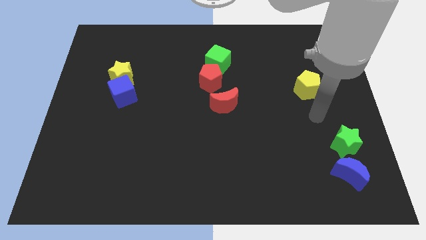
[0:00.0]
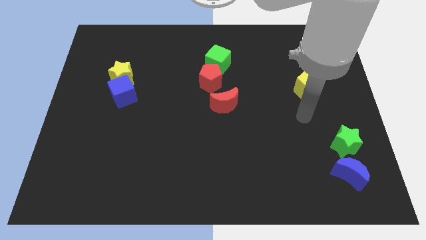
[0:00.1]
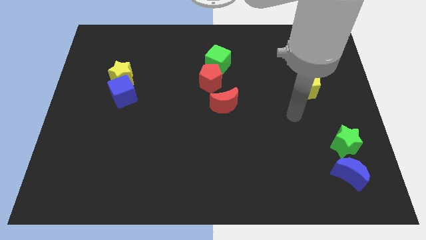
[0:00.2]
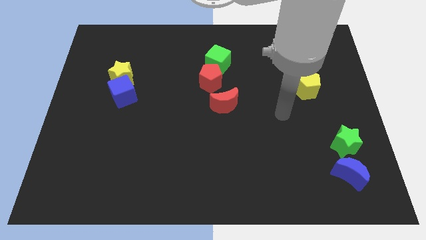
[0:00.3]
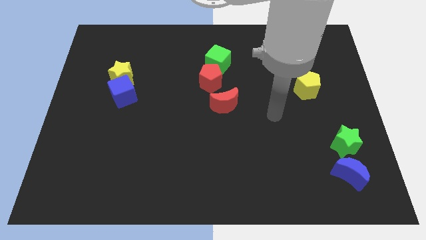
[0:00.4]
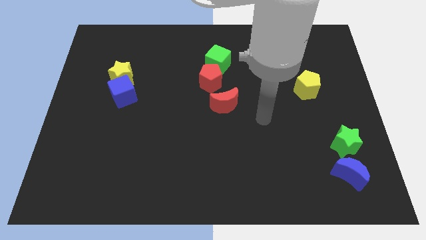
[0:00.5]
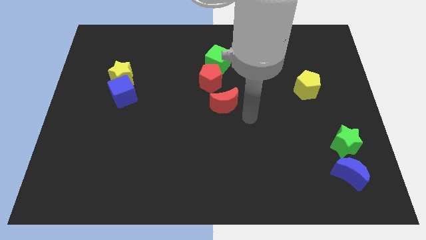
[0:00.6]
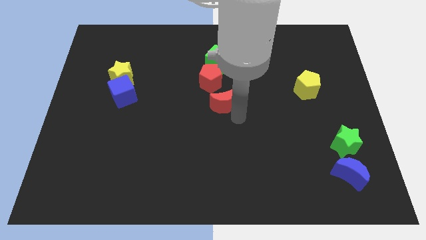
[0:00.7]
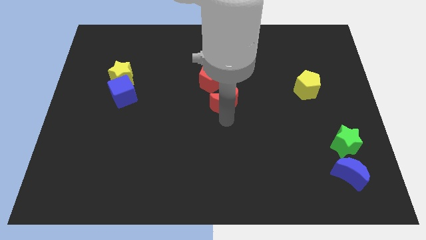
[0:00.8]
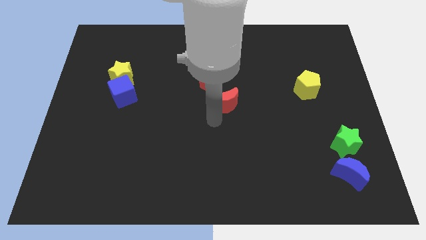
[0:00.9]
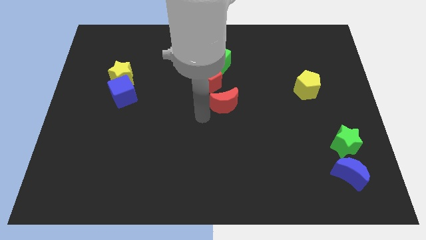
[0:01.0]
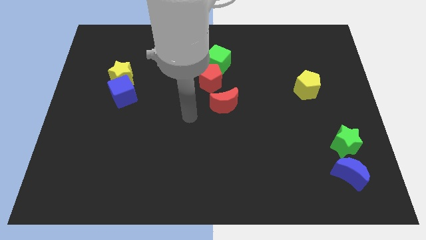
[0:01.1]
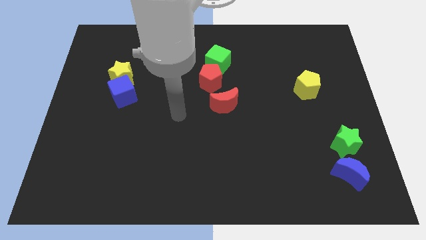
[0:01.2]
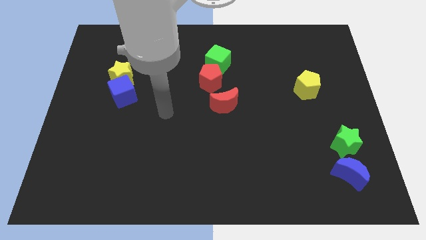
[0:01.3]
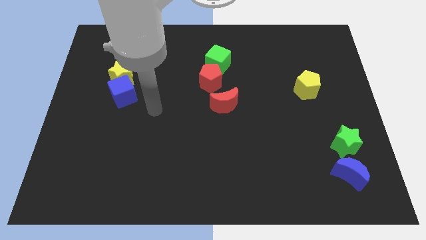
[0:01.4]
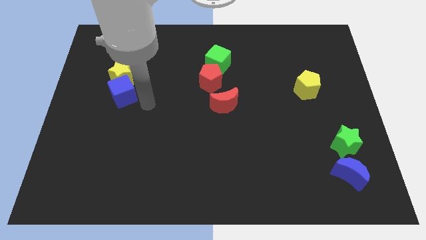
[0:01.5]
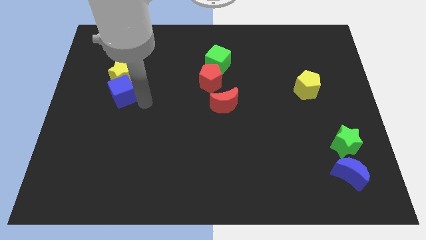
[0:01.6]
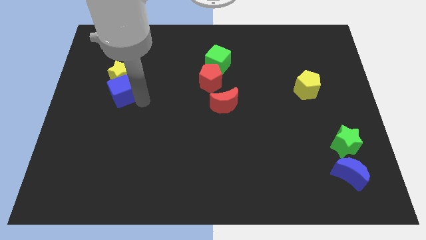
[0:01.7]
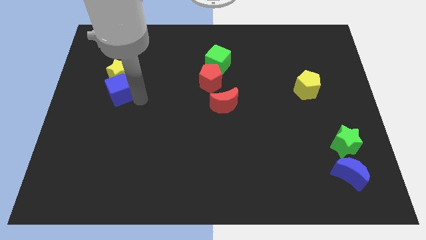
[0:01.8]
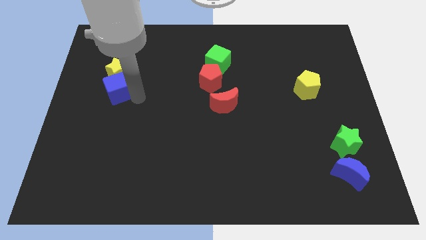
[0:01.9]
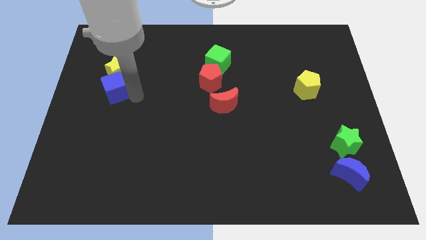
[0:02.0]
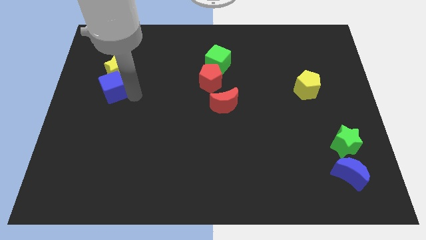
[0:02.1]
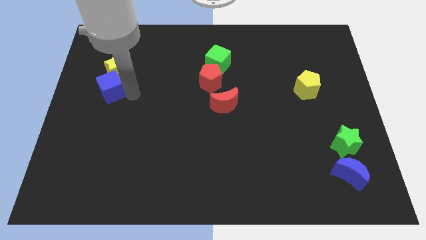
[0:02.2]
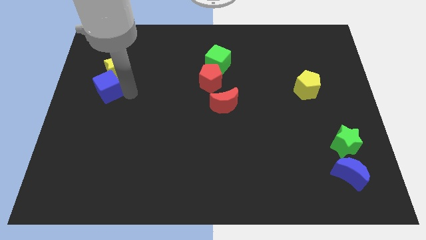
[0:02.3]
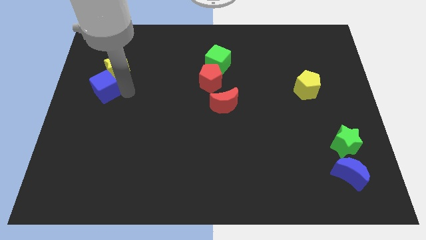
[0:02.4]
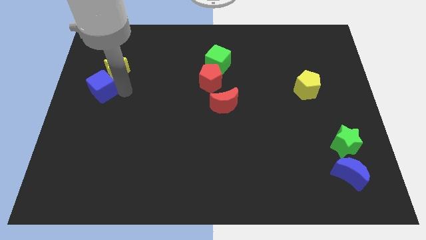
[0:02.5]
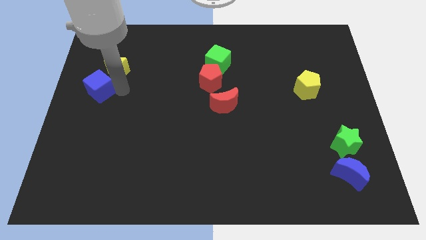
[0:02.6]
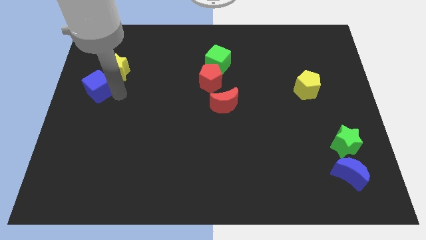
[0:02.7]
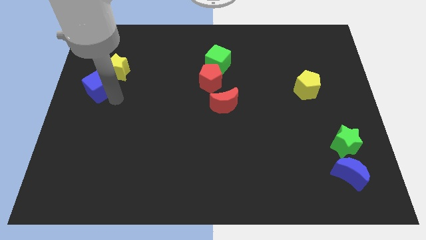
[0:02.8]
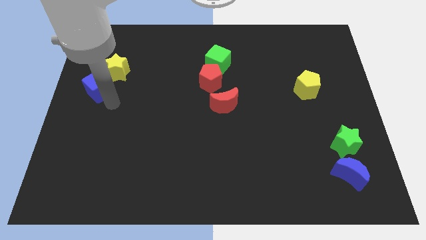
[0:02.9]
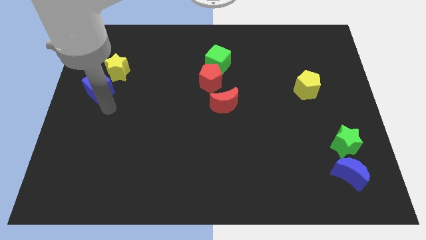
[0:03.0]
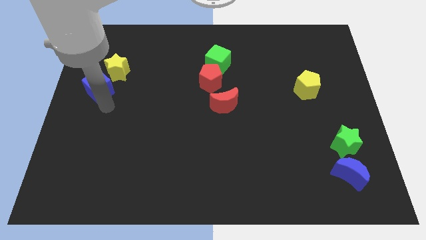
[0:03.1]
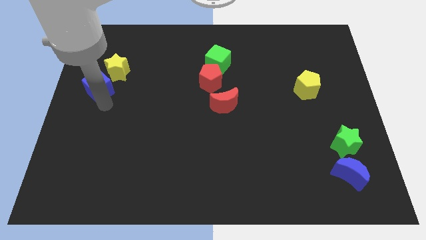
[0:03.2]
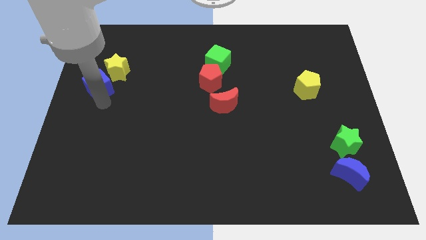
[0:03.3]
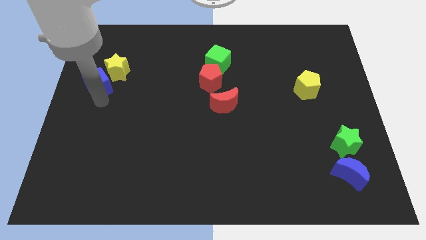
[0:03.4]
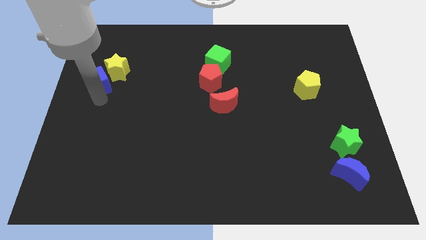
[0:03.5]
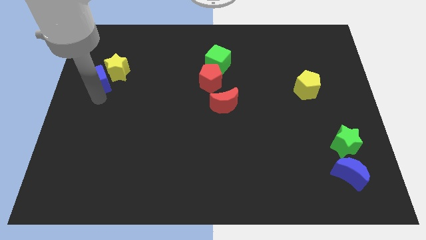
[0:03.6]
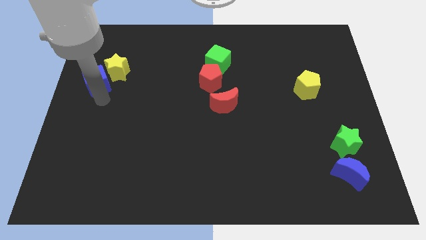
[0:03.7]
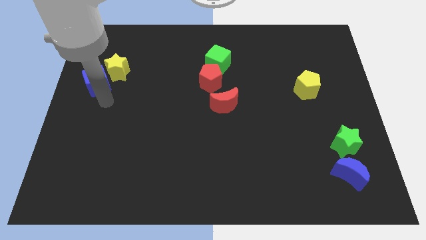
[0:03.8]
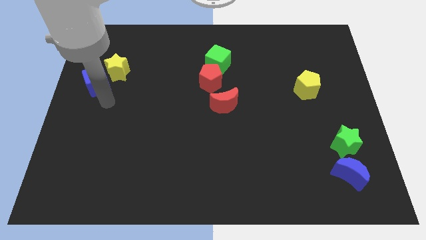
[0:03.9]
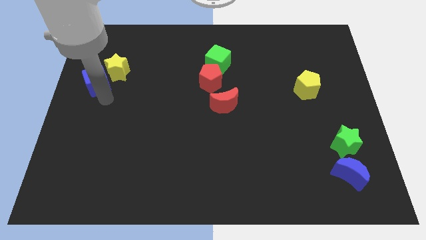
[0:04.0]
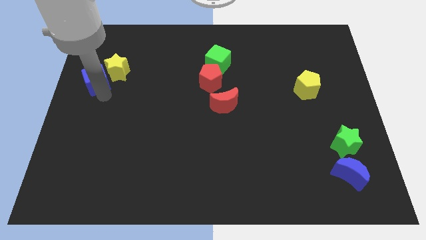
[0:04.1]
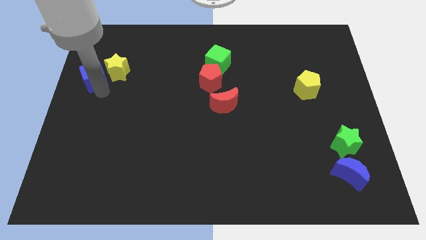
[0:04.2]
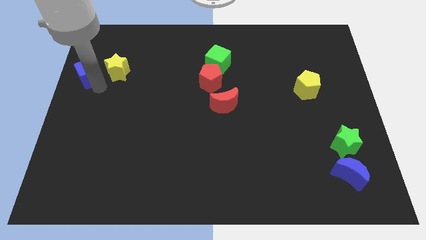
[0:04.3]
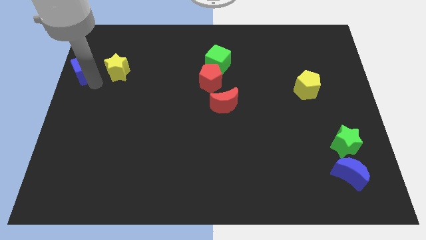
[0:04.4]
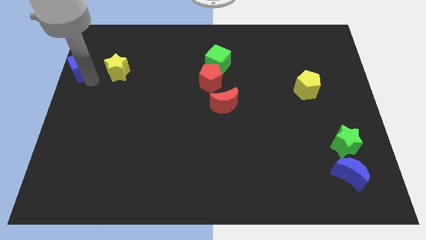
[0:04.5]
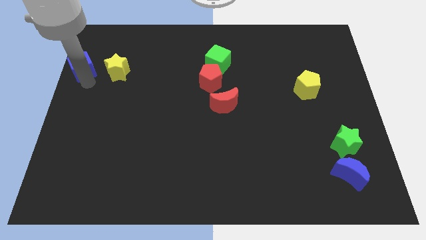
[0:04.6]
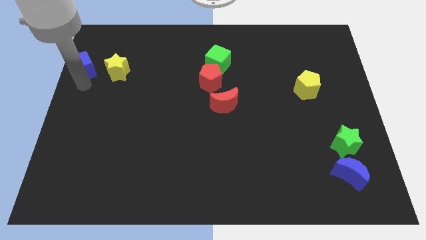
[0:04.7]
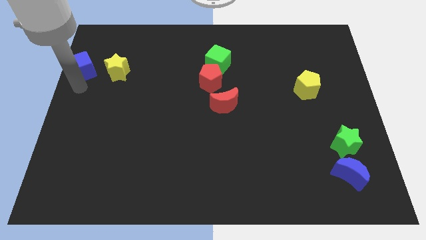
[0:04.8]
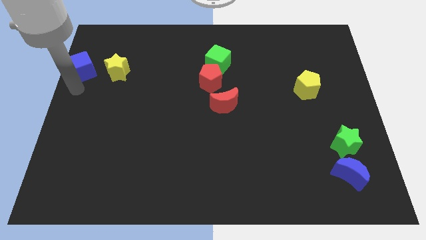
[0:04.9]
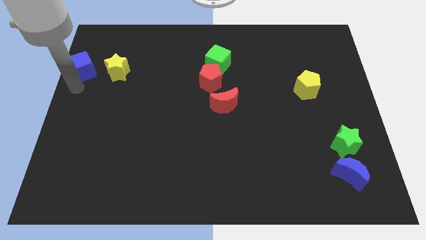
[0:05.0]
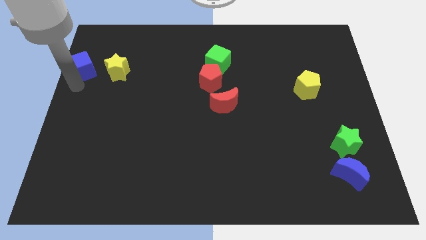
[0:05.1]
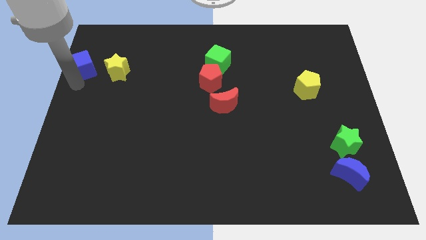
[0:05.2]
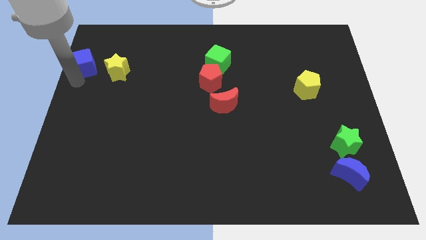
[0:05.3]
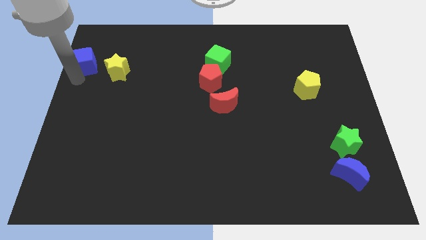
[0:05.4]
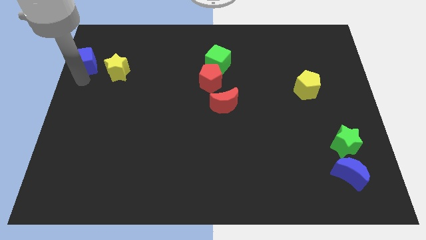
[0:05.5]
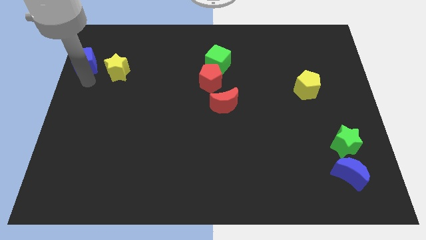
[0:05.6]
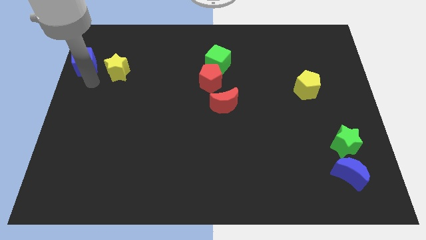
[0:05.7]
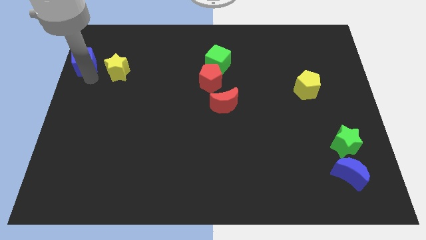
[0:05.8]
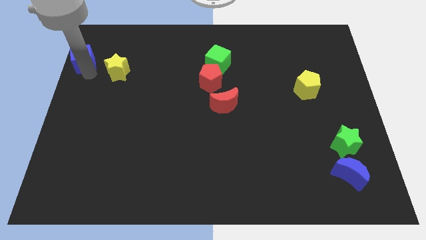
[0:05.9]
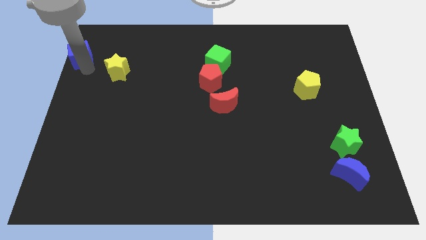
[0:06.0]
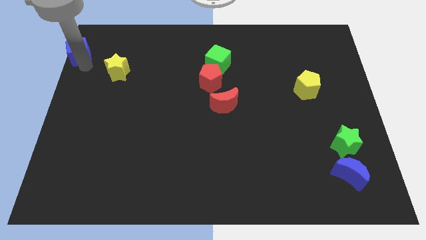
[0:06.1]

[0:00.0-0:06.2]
move the blue cube to the top left of the board

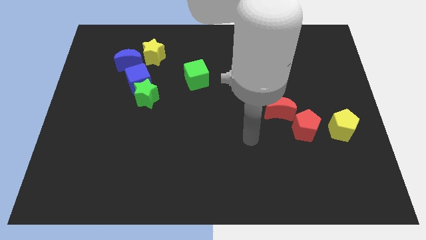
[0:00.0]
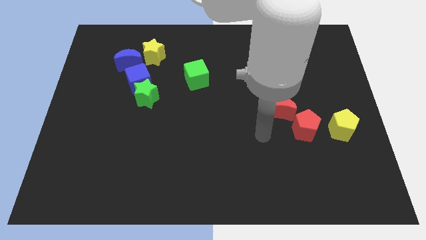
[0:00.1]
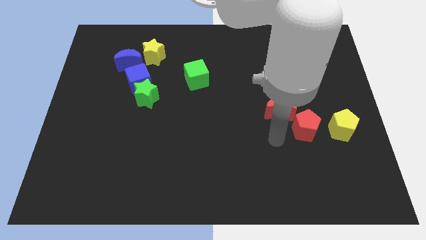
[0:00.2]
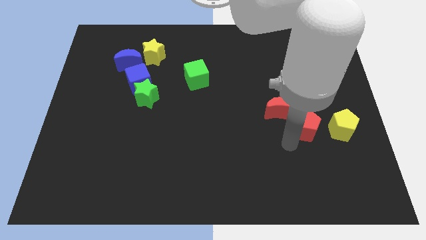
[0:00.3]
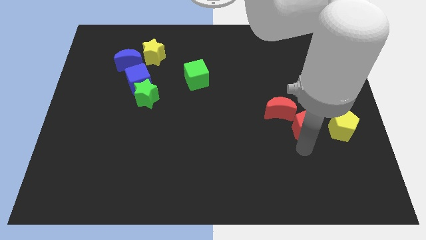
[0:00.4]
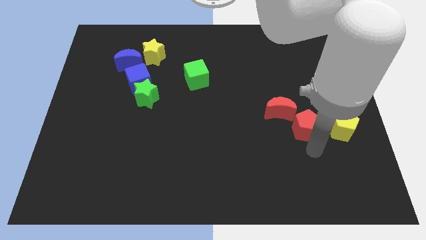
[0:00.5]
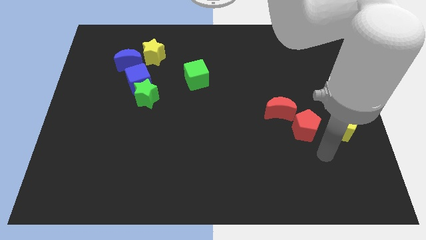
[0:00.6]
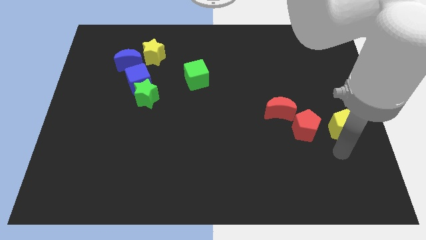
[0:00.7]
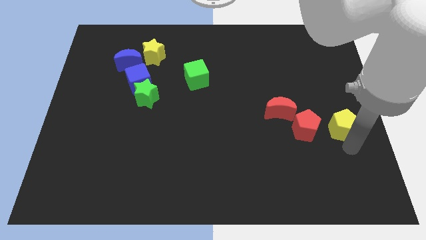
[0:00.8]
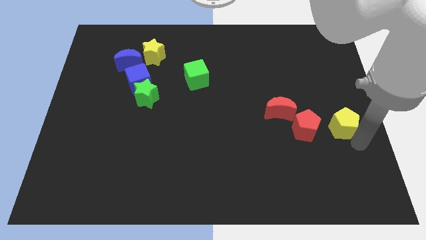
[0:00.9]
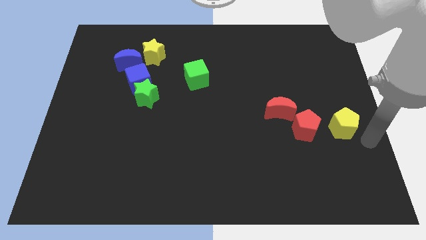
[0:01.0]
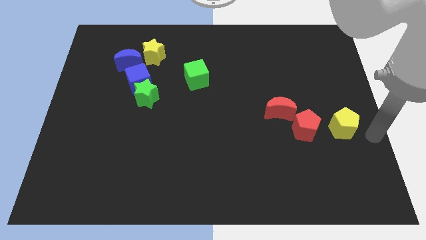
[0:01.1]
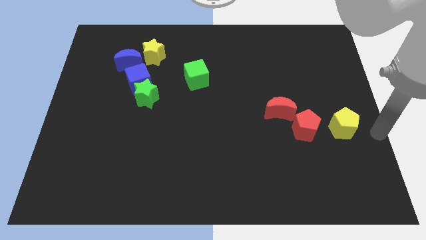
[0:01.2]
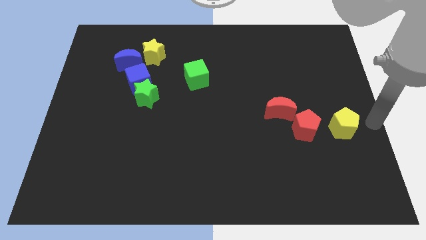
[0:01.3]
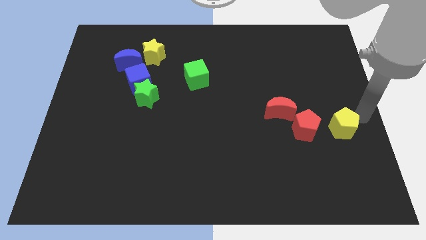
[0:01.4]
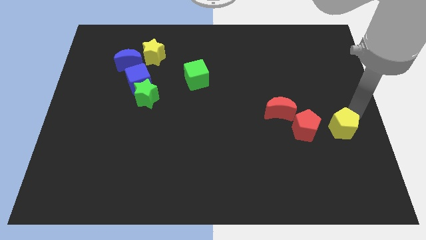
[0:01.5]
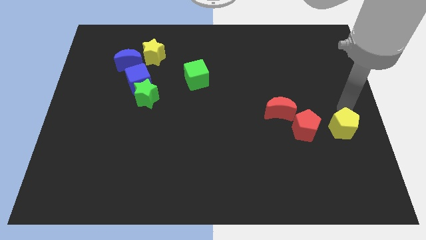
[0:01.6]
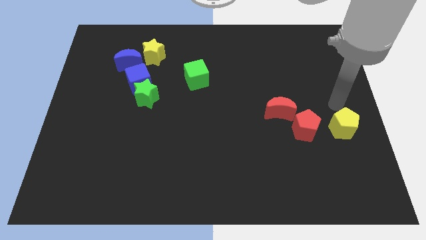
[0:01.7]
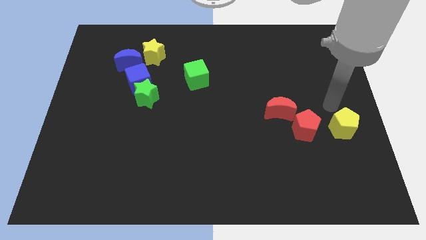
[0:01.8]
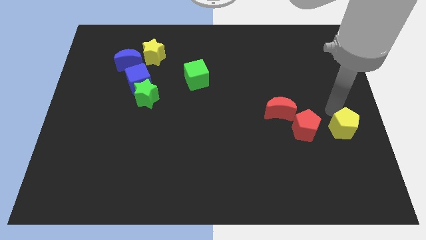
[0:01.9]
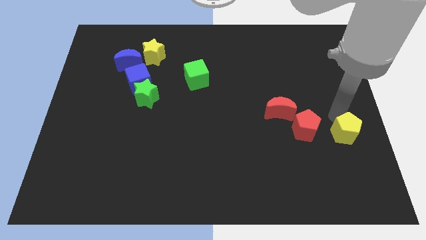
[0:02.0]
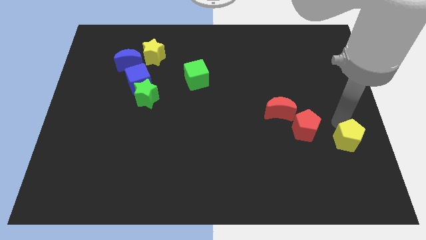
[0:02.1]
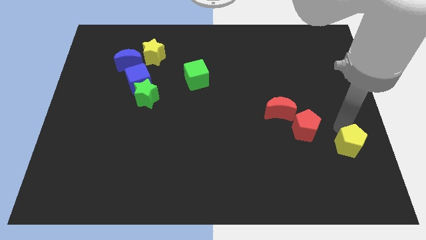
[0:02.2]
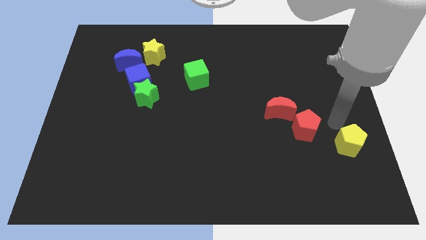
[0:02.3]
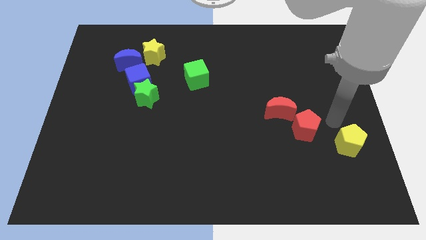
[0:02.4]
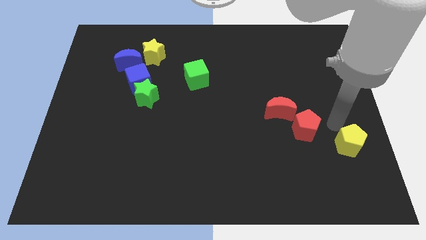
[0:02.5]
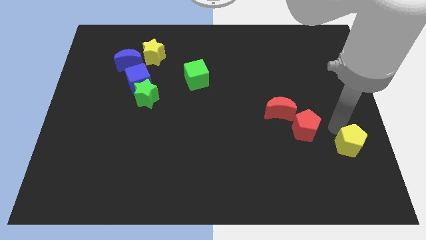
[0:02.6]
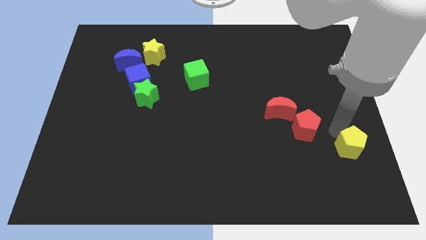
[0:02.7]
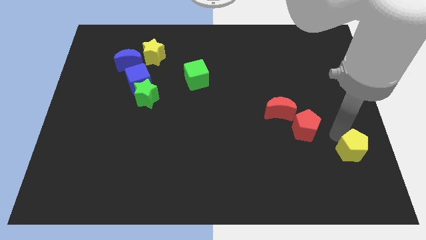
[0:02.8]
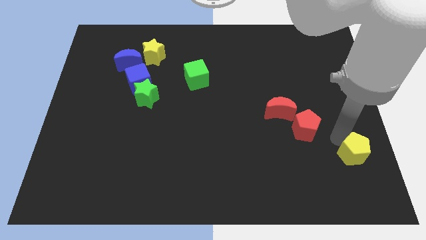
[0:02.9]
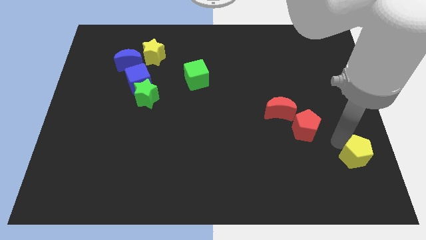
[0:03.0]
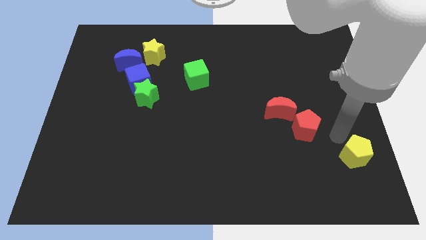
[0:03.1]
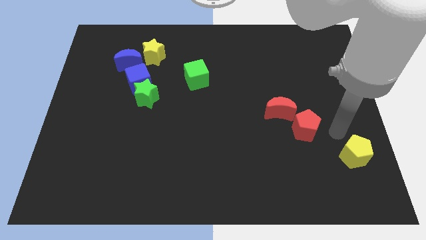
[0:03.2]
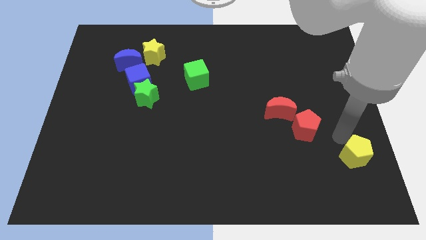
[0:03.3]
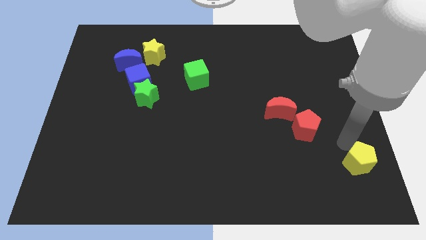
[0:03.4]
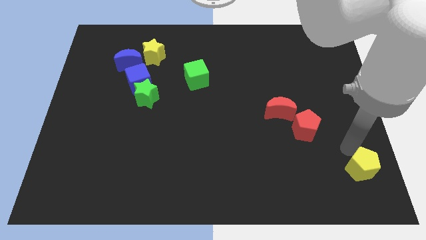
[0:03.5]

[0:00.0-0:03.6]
put the yellow pentagon to the lower right corner
